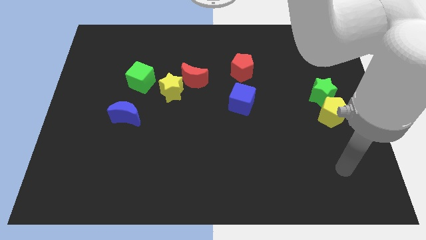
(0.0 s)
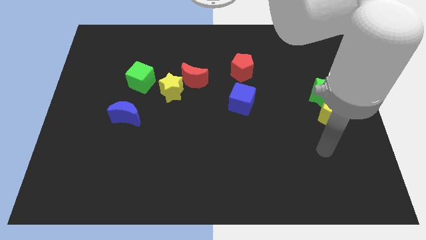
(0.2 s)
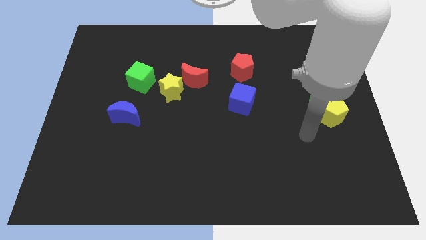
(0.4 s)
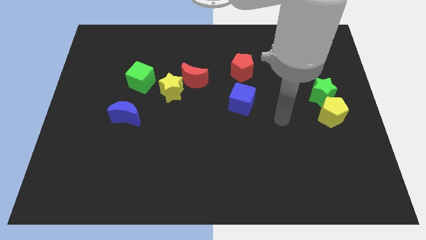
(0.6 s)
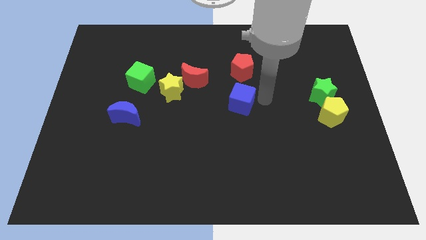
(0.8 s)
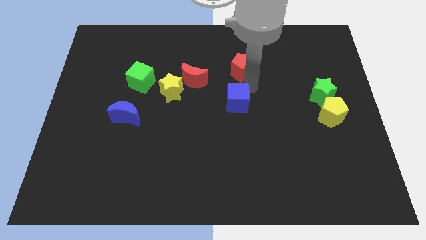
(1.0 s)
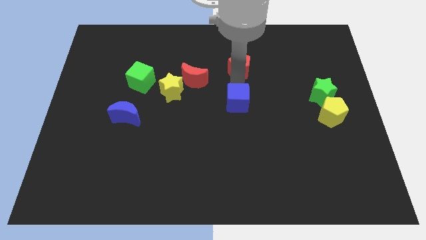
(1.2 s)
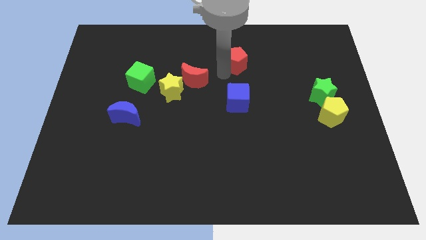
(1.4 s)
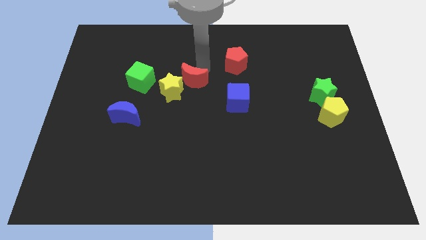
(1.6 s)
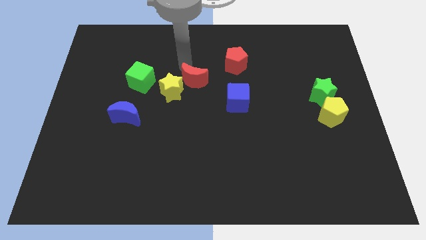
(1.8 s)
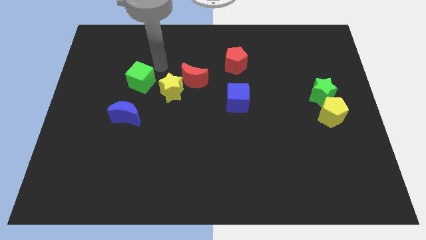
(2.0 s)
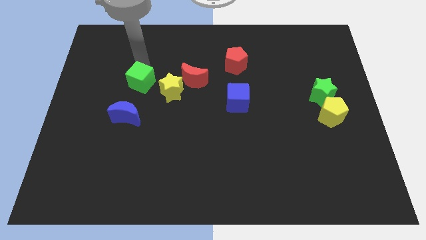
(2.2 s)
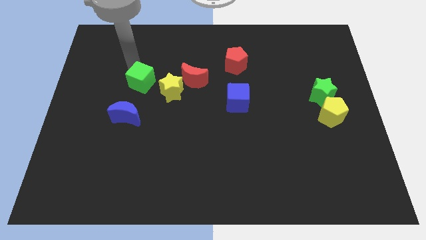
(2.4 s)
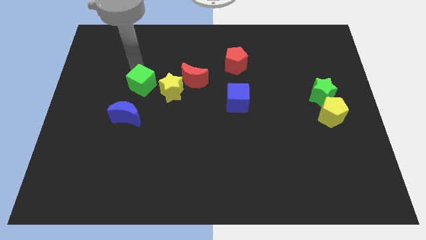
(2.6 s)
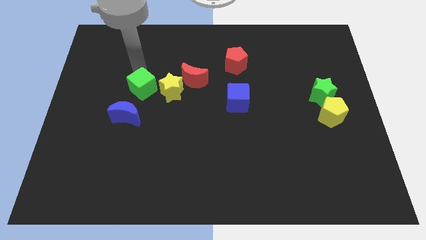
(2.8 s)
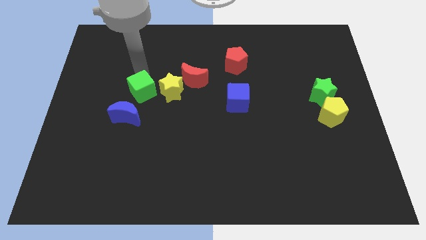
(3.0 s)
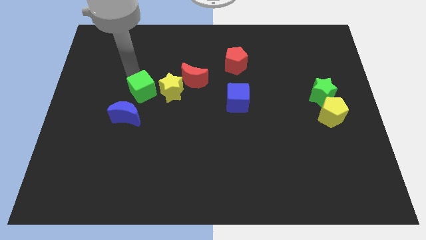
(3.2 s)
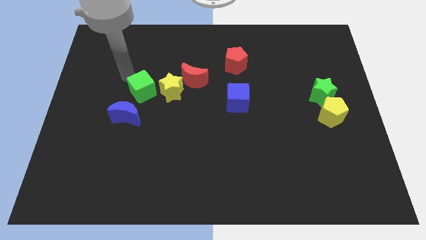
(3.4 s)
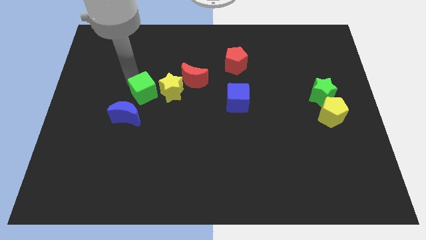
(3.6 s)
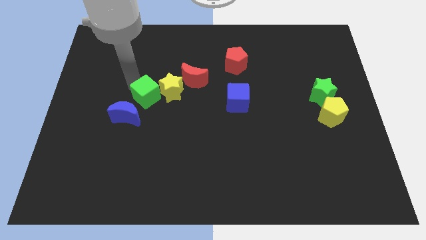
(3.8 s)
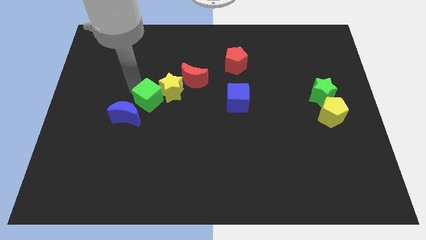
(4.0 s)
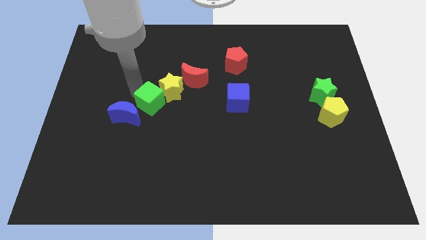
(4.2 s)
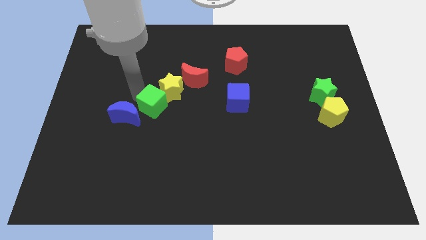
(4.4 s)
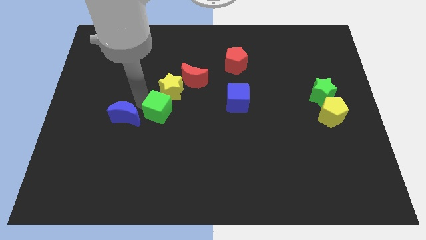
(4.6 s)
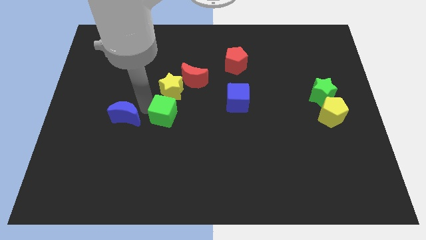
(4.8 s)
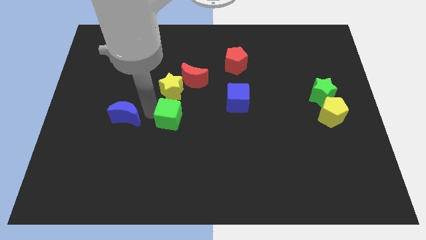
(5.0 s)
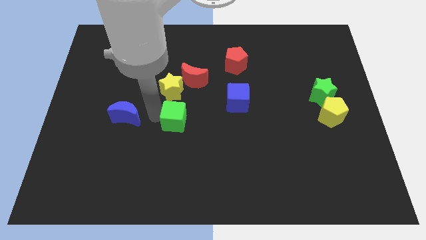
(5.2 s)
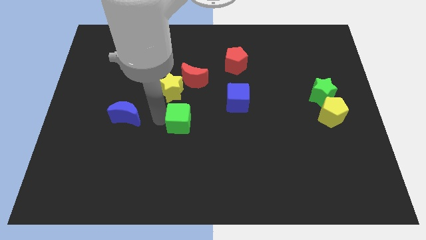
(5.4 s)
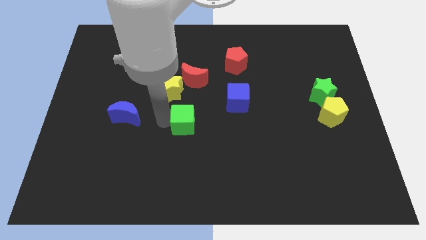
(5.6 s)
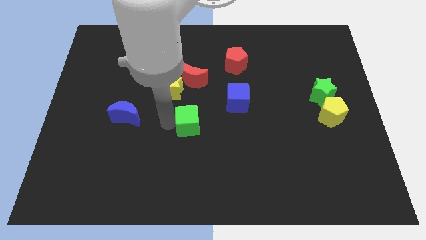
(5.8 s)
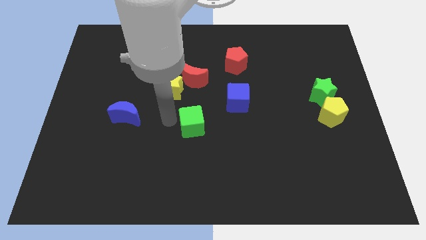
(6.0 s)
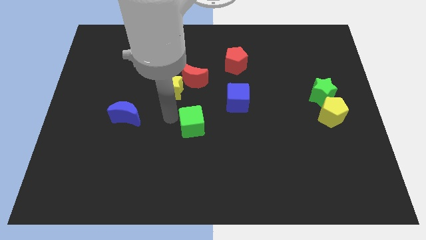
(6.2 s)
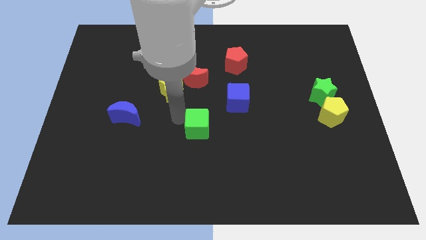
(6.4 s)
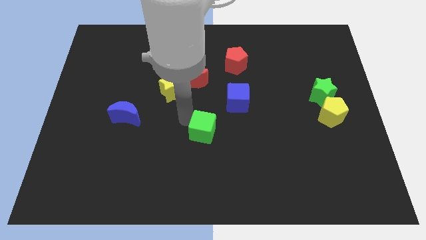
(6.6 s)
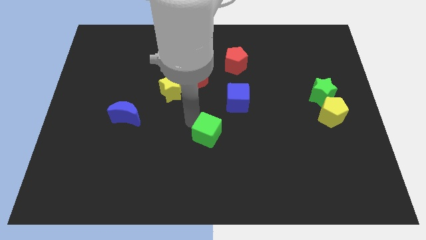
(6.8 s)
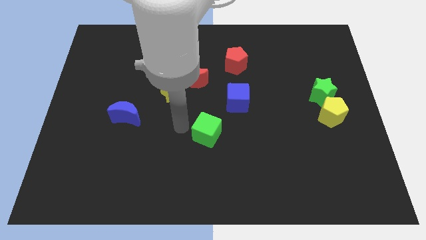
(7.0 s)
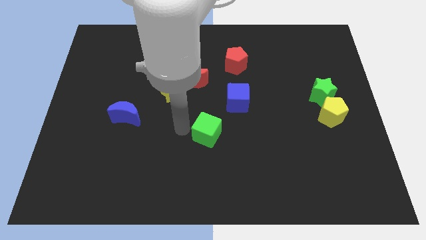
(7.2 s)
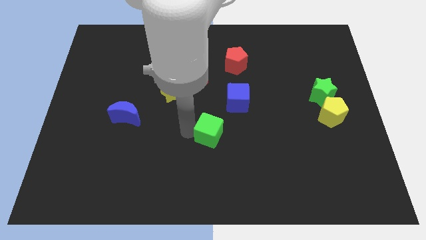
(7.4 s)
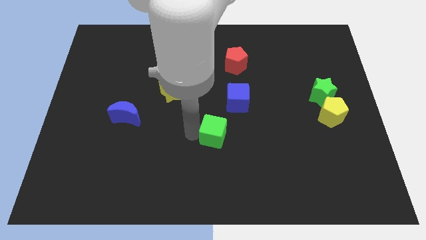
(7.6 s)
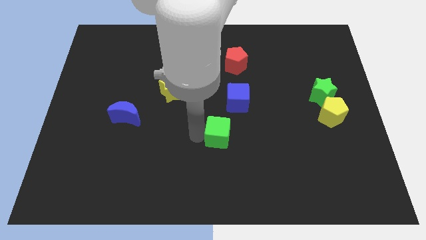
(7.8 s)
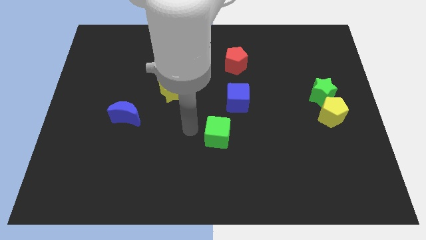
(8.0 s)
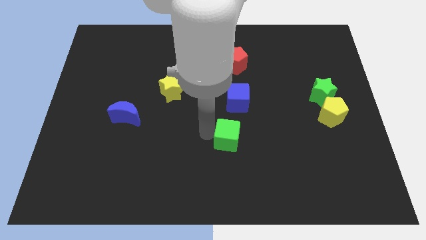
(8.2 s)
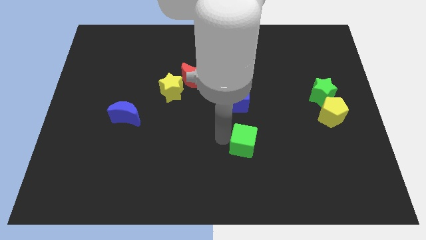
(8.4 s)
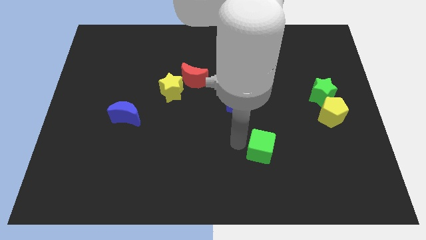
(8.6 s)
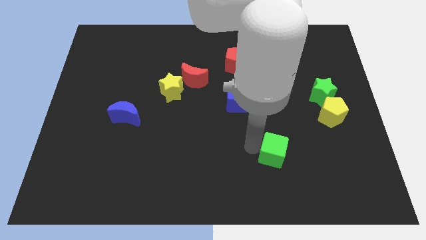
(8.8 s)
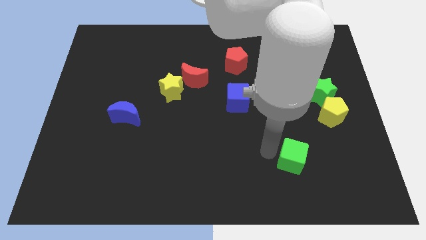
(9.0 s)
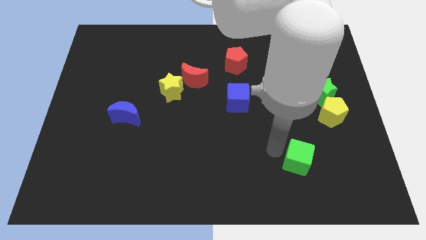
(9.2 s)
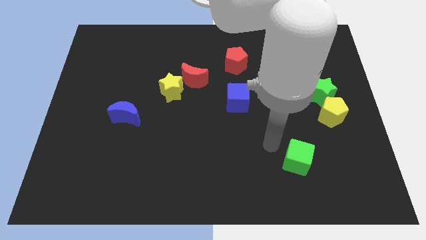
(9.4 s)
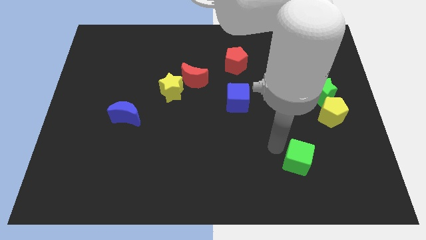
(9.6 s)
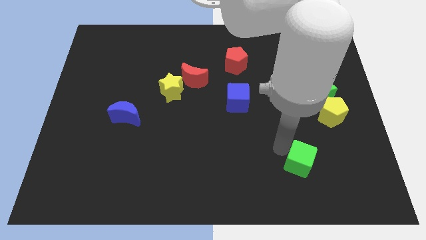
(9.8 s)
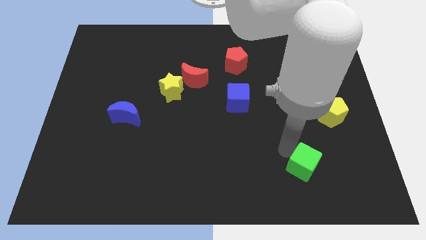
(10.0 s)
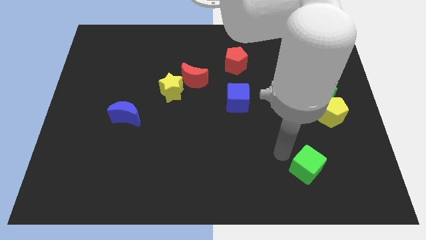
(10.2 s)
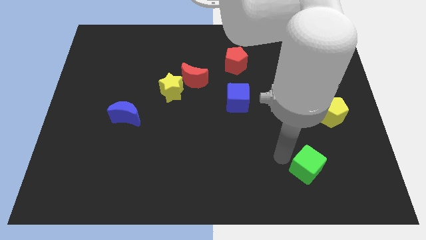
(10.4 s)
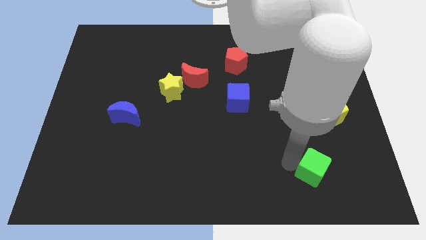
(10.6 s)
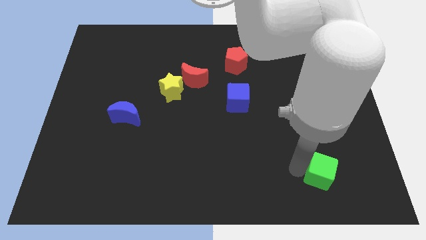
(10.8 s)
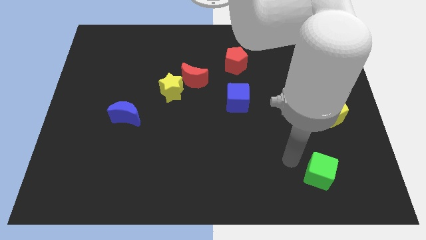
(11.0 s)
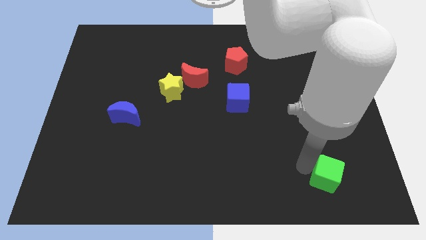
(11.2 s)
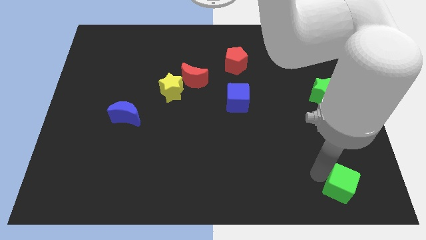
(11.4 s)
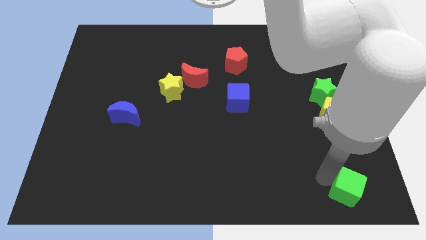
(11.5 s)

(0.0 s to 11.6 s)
move the green cube to the bottom right corner
